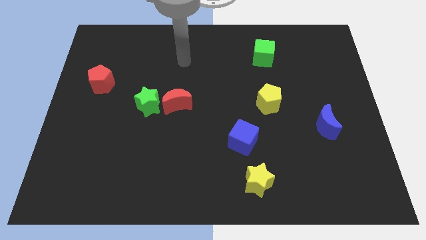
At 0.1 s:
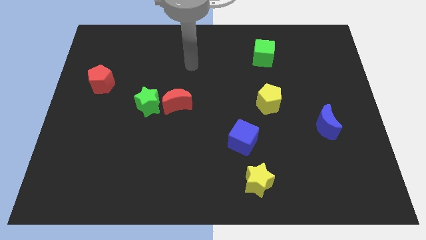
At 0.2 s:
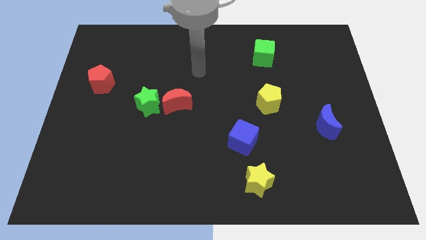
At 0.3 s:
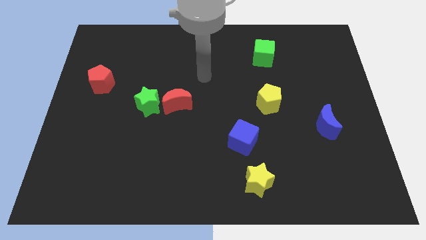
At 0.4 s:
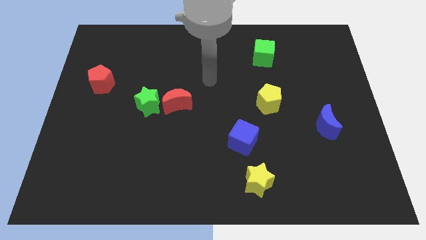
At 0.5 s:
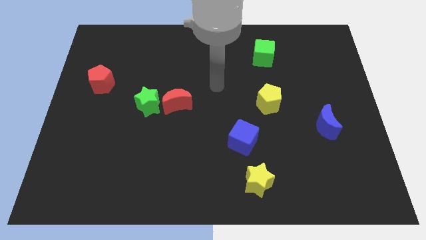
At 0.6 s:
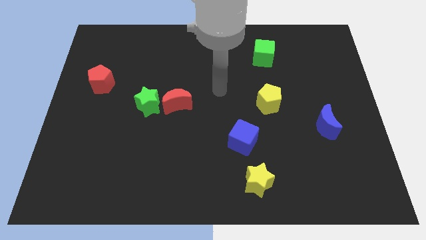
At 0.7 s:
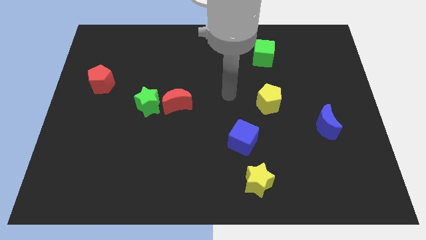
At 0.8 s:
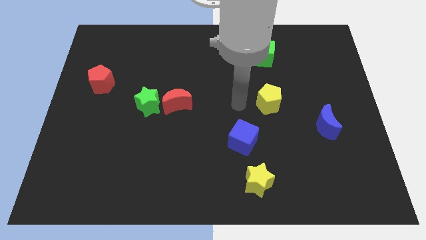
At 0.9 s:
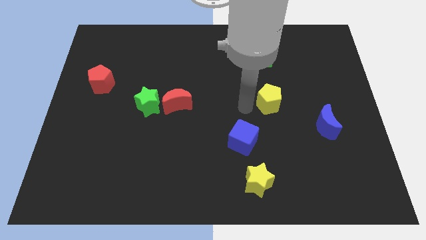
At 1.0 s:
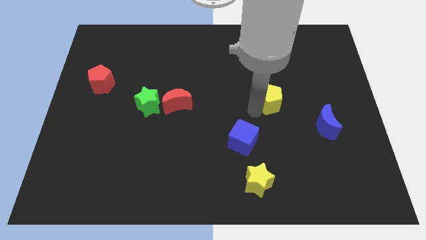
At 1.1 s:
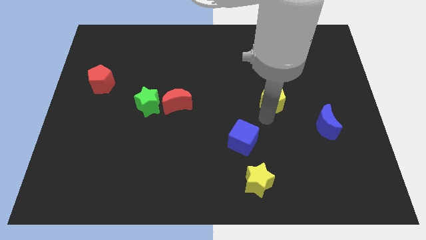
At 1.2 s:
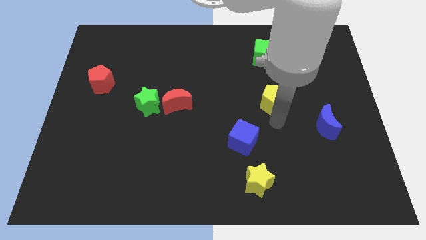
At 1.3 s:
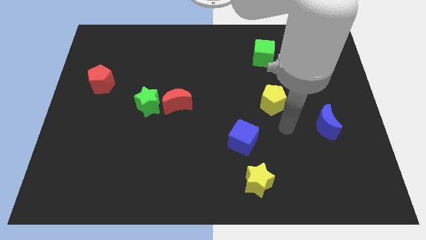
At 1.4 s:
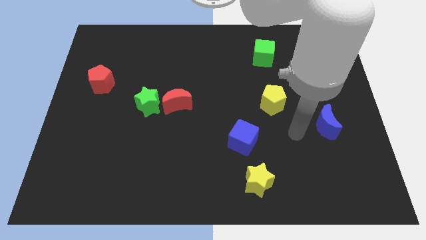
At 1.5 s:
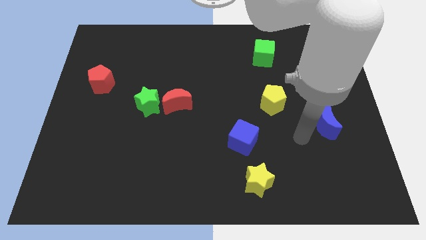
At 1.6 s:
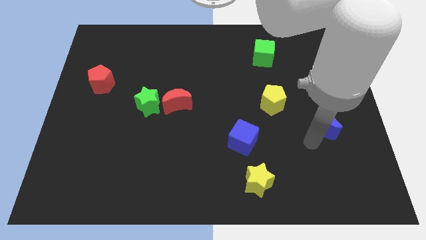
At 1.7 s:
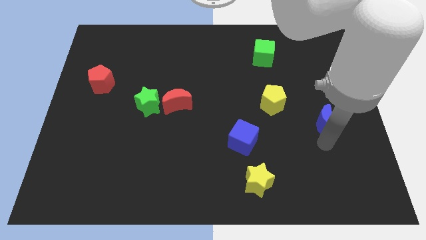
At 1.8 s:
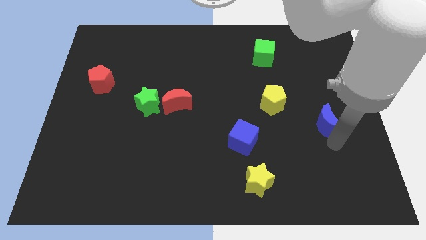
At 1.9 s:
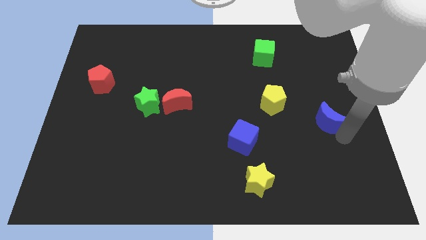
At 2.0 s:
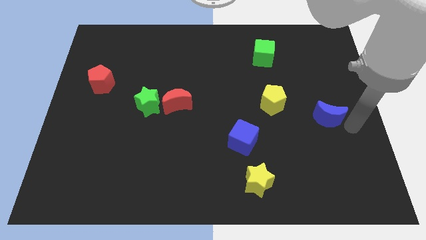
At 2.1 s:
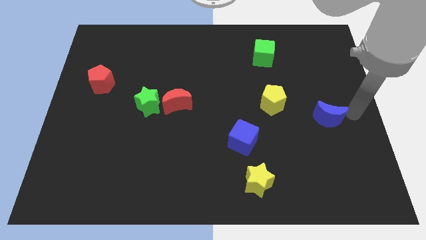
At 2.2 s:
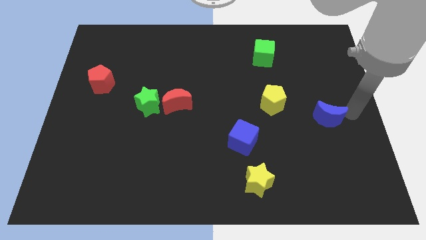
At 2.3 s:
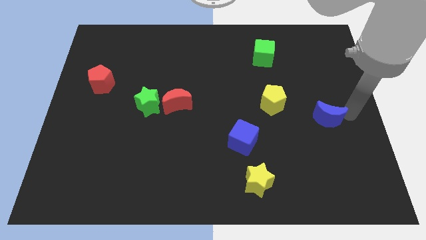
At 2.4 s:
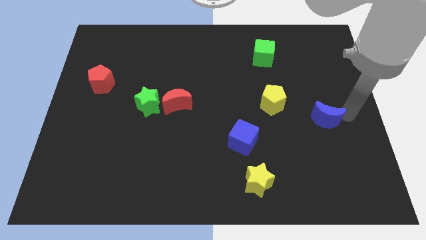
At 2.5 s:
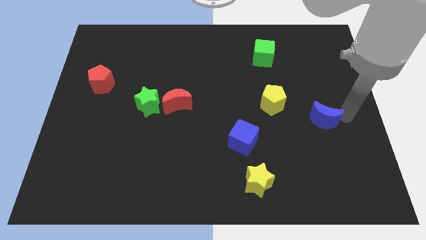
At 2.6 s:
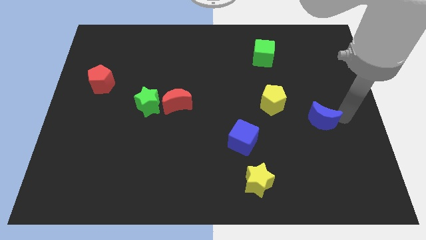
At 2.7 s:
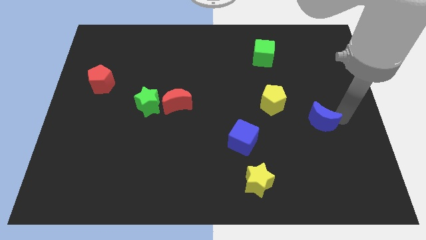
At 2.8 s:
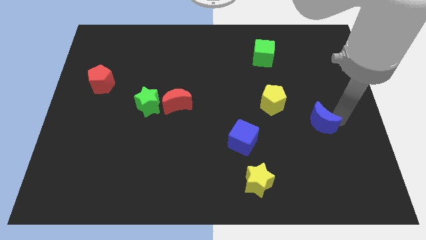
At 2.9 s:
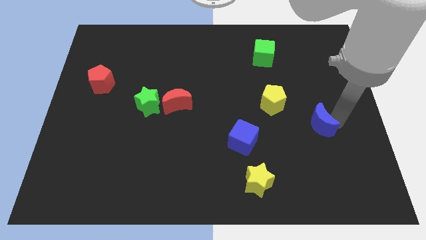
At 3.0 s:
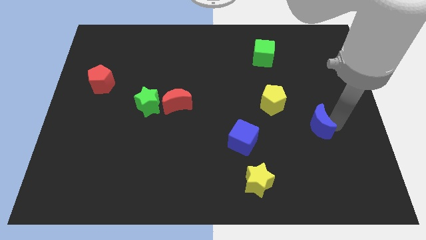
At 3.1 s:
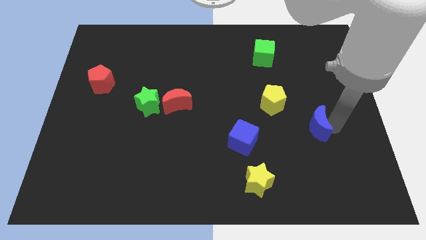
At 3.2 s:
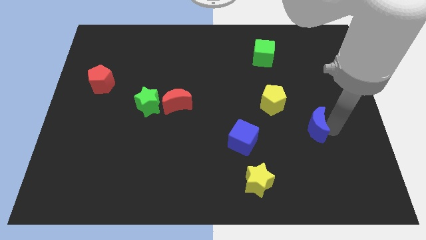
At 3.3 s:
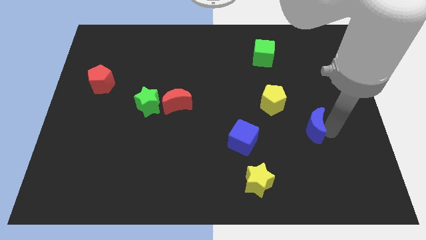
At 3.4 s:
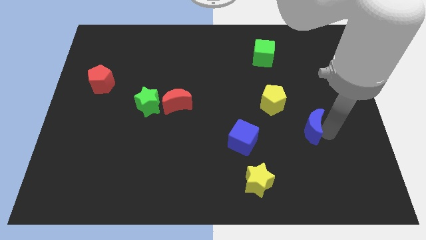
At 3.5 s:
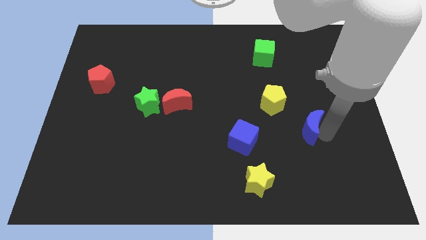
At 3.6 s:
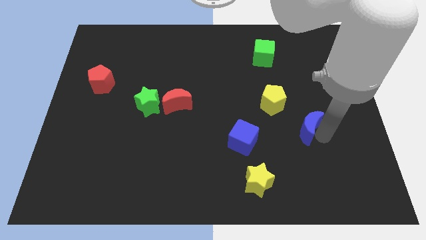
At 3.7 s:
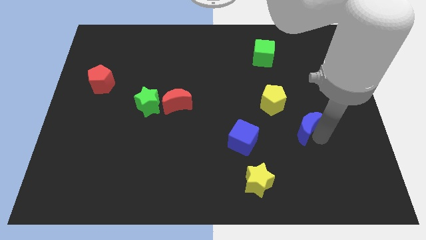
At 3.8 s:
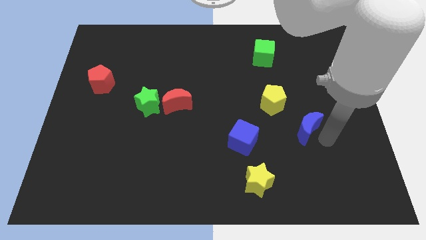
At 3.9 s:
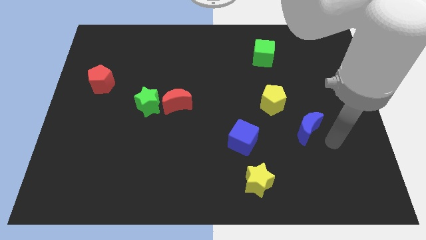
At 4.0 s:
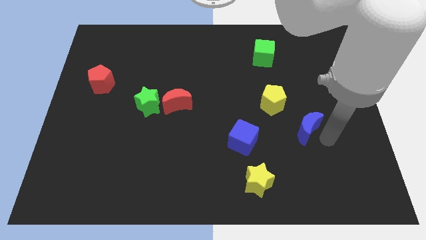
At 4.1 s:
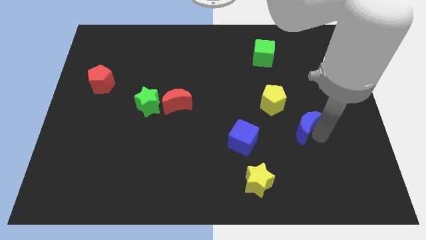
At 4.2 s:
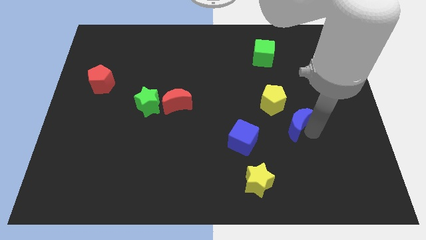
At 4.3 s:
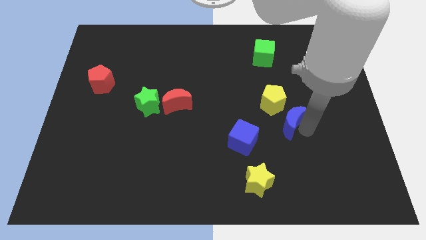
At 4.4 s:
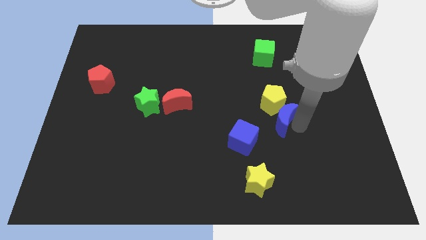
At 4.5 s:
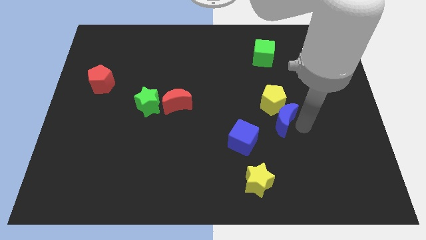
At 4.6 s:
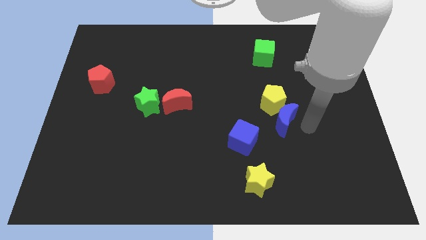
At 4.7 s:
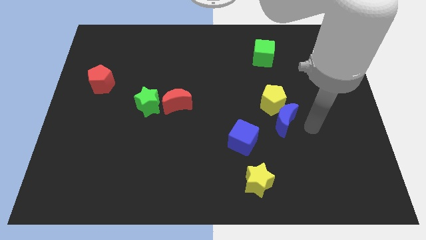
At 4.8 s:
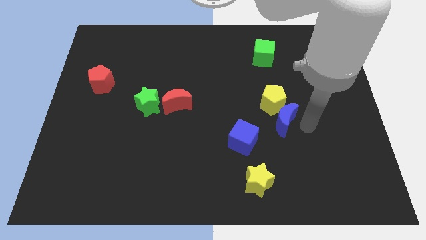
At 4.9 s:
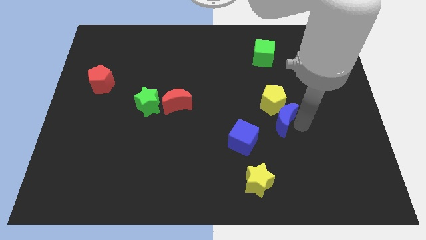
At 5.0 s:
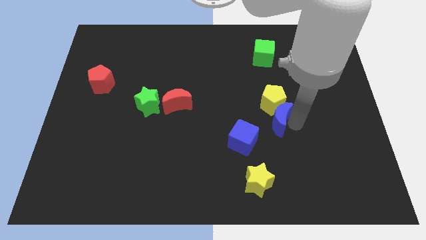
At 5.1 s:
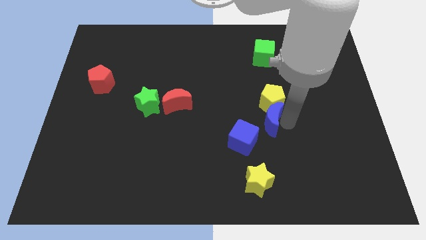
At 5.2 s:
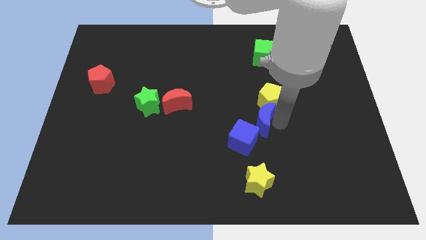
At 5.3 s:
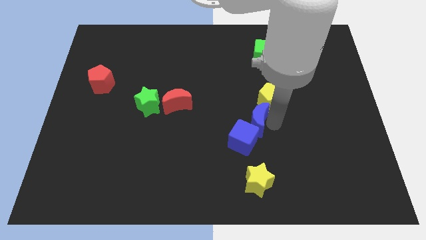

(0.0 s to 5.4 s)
move the blue moon to the middle of the board

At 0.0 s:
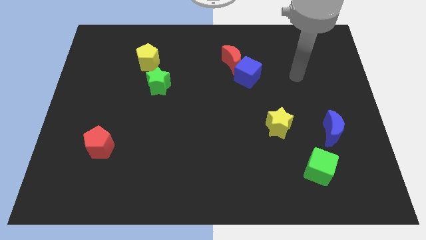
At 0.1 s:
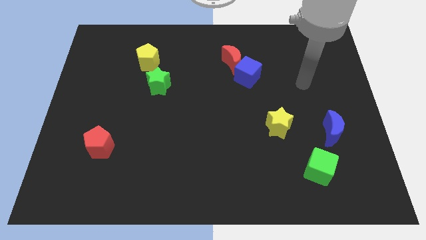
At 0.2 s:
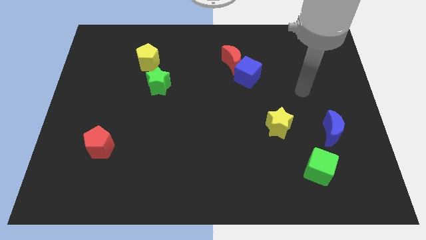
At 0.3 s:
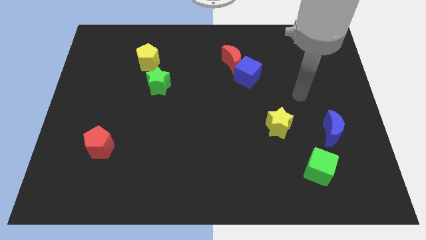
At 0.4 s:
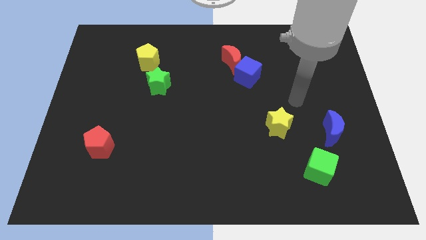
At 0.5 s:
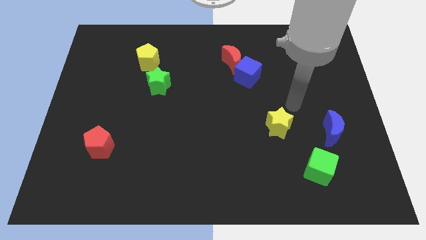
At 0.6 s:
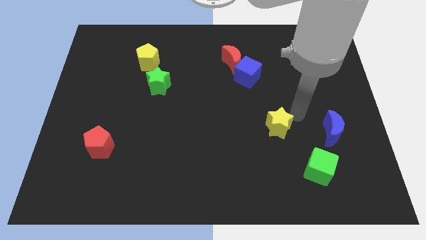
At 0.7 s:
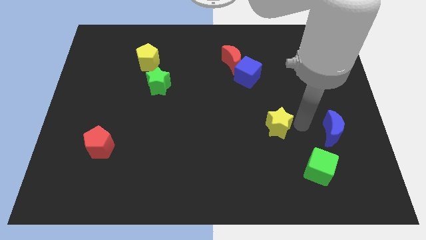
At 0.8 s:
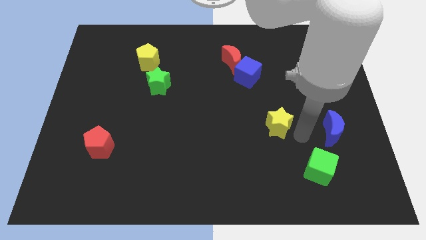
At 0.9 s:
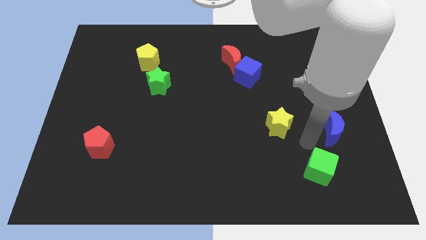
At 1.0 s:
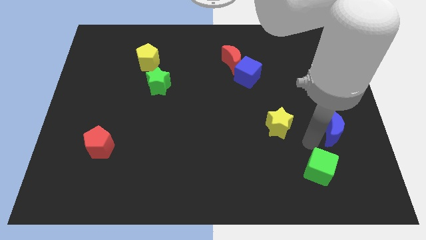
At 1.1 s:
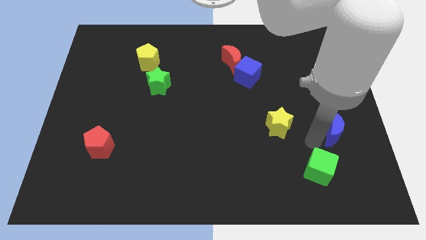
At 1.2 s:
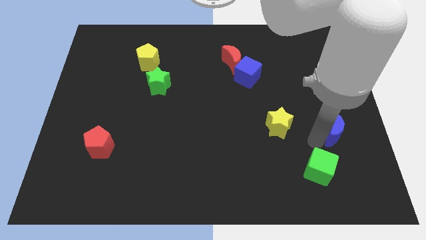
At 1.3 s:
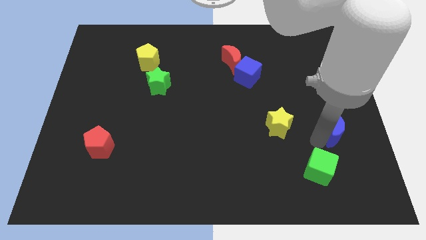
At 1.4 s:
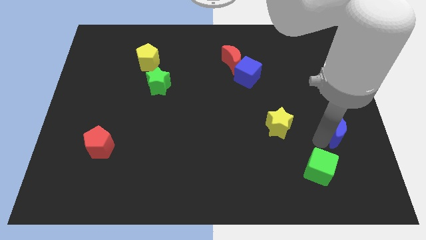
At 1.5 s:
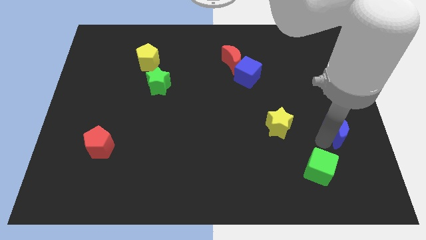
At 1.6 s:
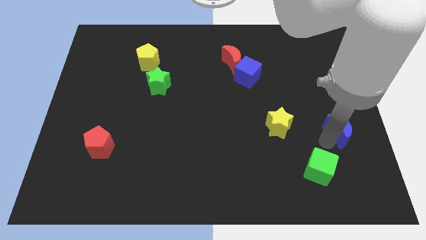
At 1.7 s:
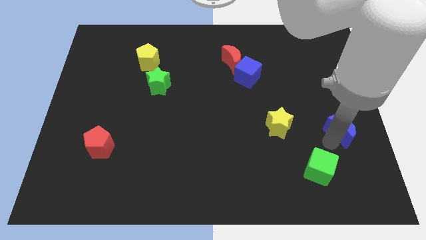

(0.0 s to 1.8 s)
slide the blue moon to the center right
